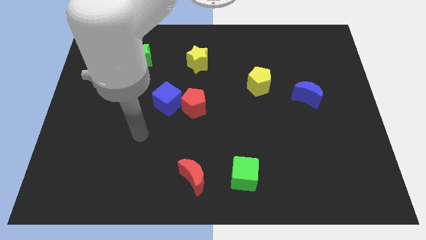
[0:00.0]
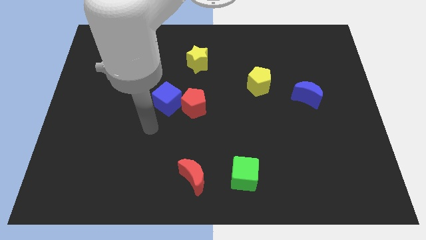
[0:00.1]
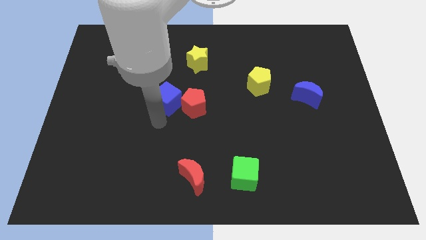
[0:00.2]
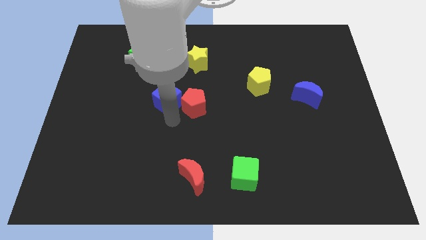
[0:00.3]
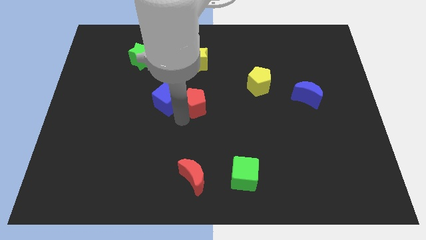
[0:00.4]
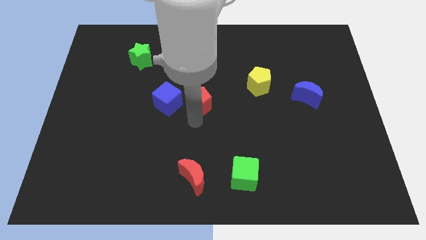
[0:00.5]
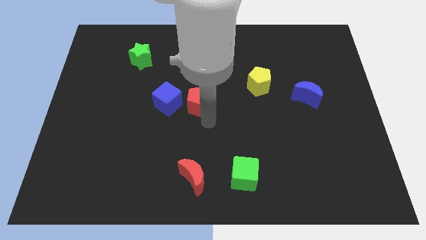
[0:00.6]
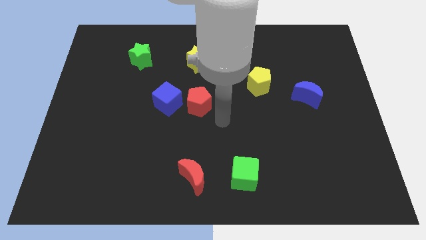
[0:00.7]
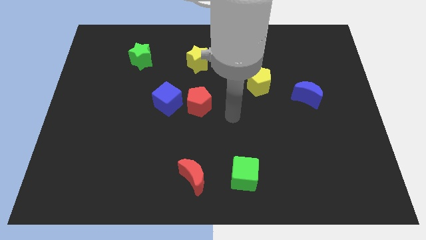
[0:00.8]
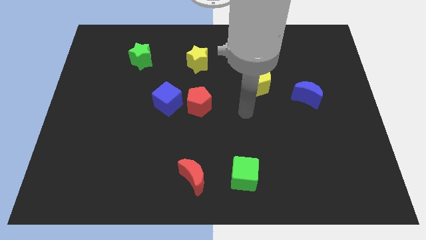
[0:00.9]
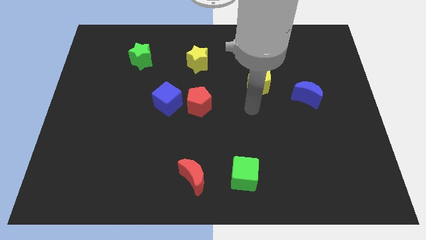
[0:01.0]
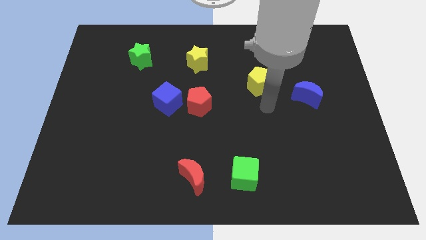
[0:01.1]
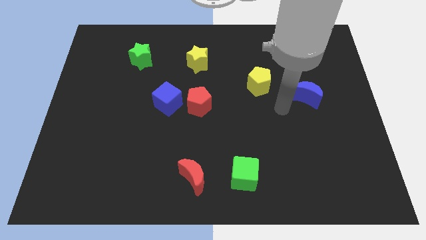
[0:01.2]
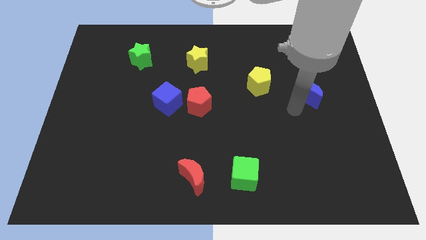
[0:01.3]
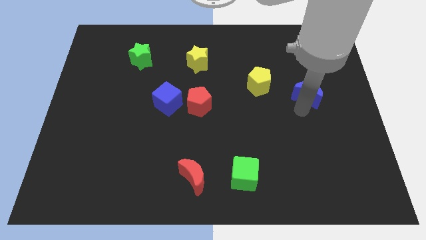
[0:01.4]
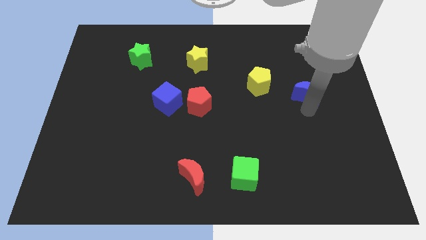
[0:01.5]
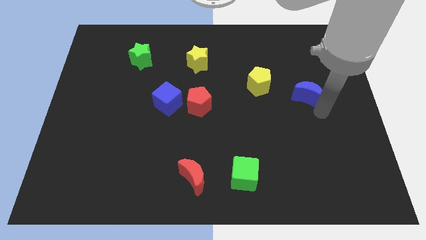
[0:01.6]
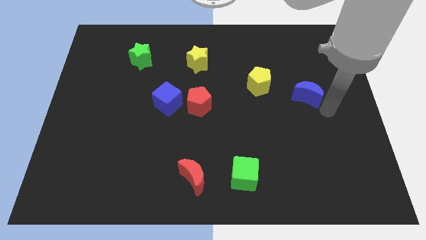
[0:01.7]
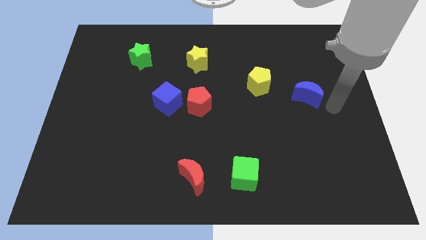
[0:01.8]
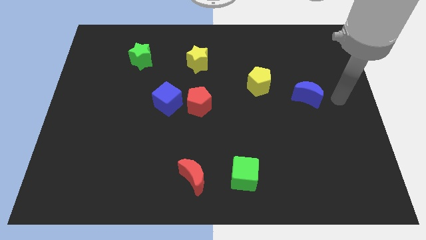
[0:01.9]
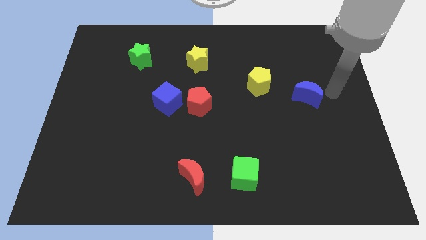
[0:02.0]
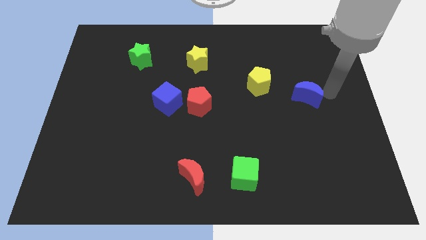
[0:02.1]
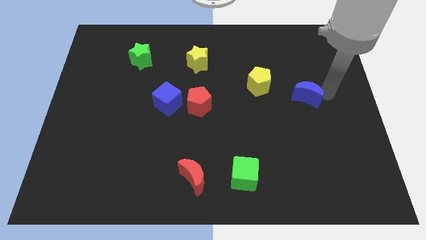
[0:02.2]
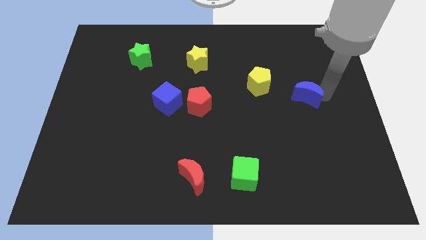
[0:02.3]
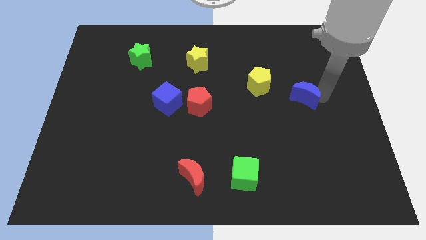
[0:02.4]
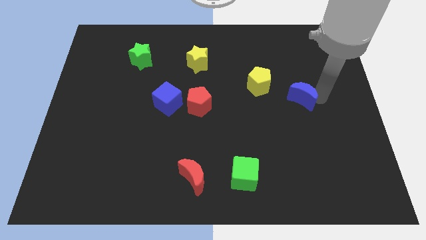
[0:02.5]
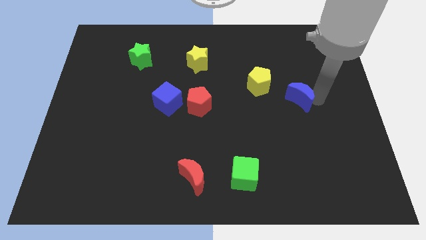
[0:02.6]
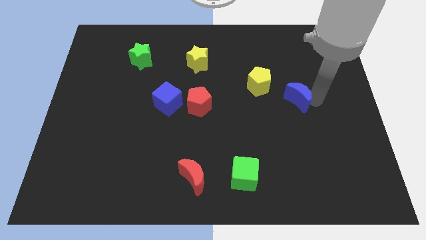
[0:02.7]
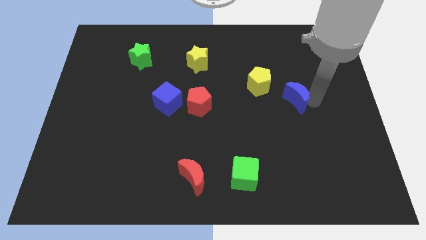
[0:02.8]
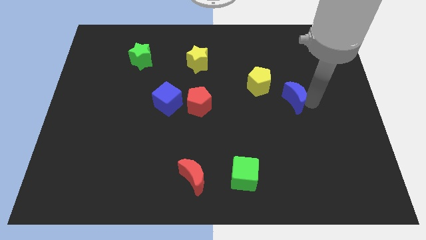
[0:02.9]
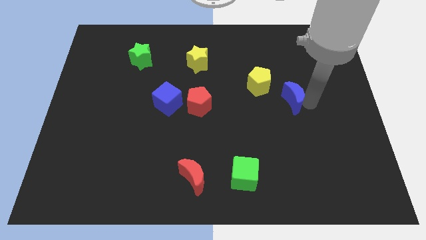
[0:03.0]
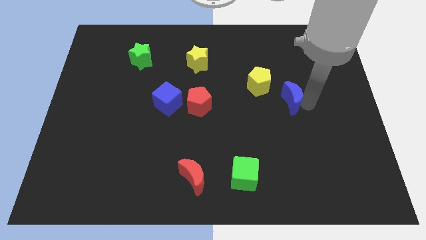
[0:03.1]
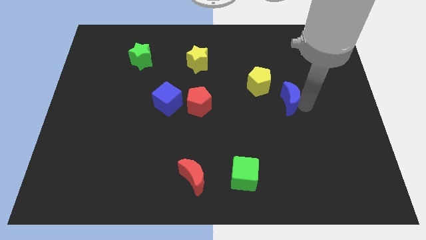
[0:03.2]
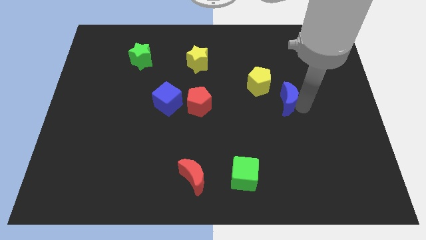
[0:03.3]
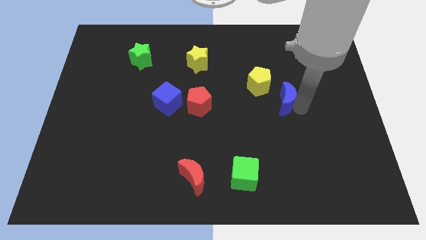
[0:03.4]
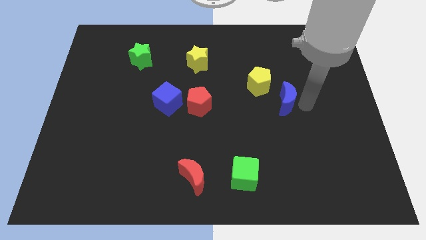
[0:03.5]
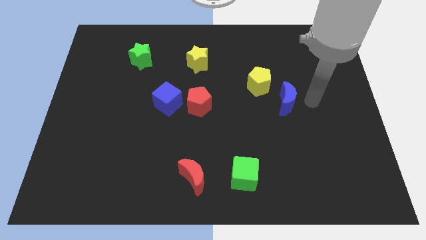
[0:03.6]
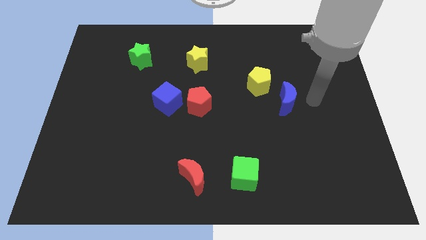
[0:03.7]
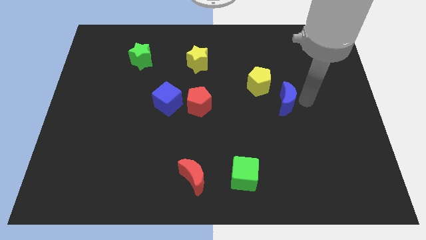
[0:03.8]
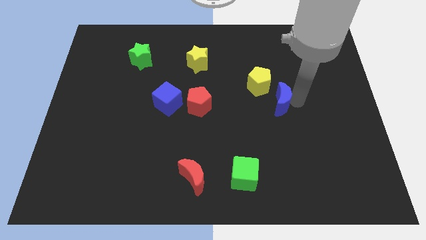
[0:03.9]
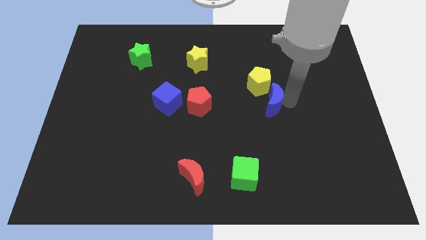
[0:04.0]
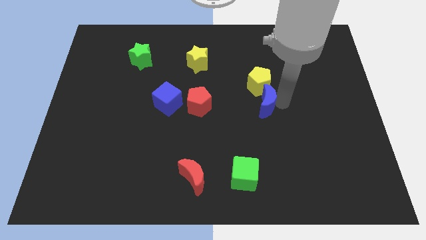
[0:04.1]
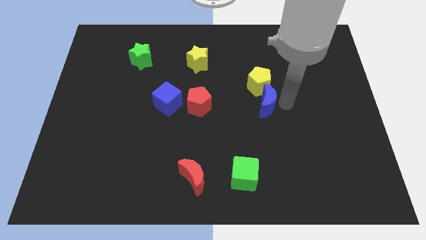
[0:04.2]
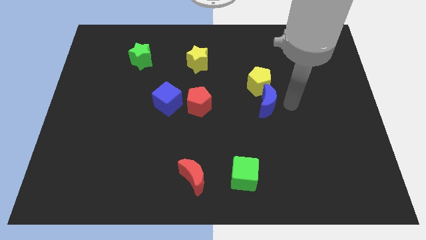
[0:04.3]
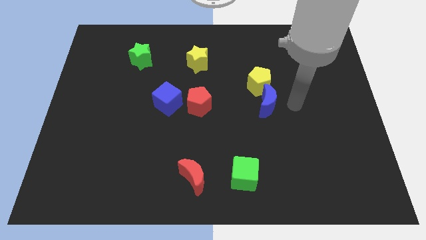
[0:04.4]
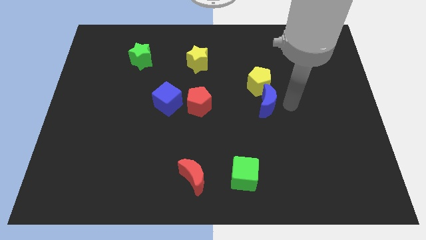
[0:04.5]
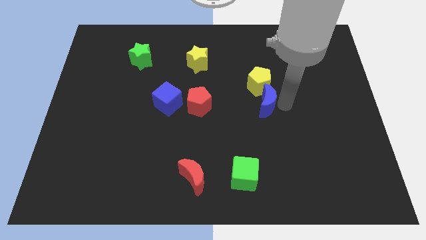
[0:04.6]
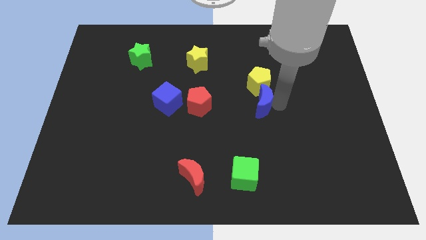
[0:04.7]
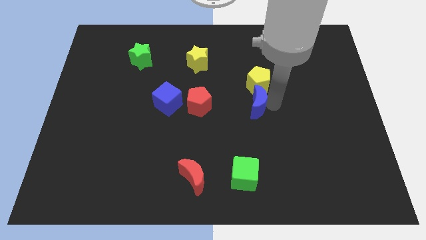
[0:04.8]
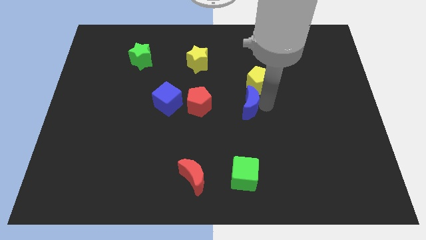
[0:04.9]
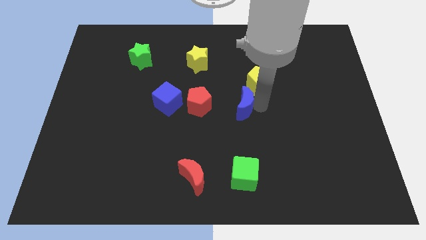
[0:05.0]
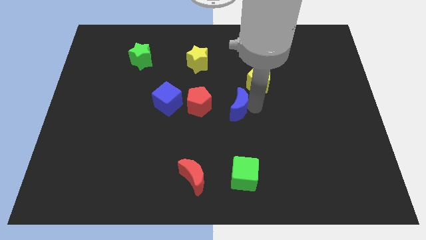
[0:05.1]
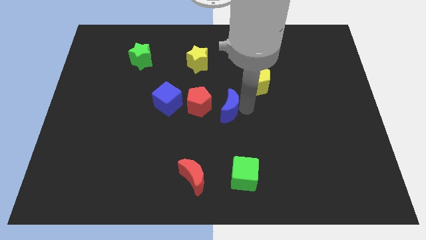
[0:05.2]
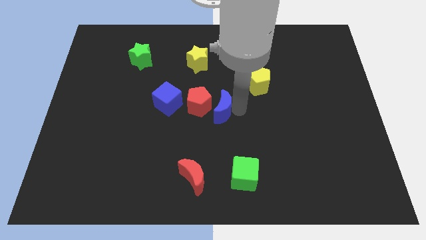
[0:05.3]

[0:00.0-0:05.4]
move the blue moon close to the red pentagon

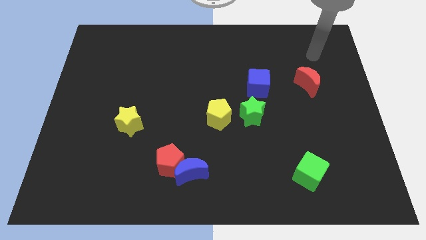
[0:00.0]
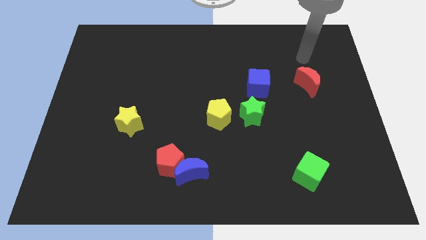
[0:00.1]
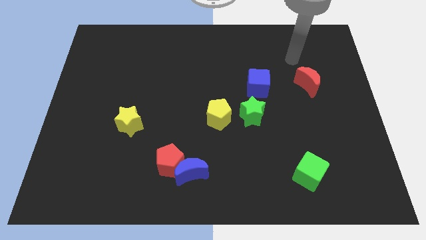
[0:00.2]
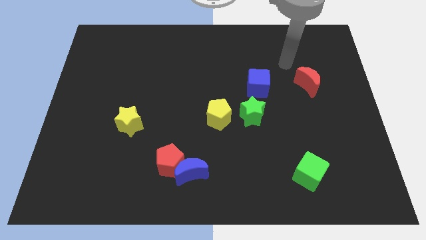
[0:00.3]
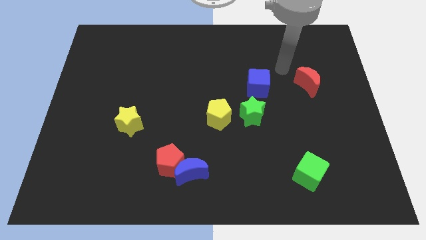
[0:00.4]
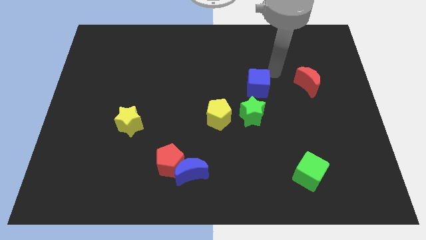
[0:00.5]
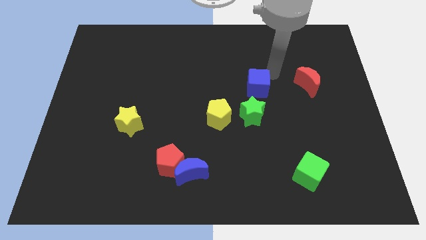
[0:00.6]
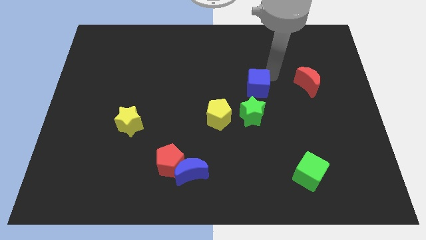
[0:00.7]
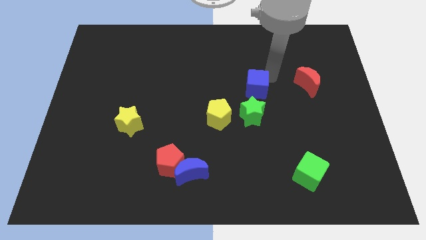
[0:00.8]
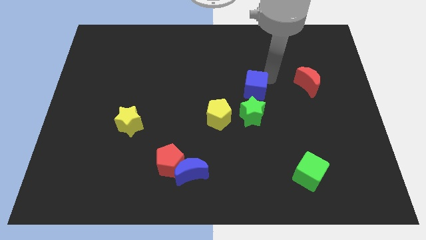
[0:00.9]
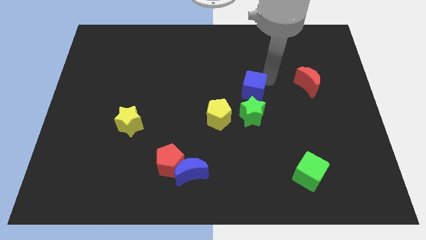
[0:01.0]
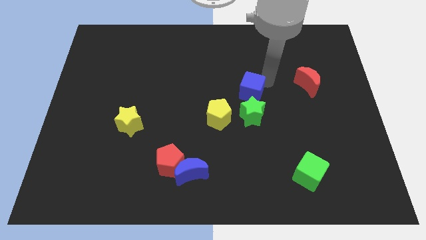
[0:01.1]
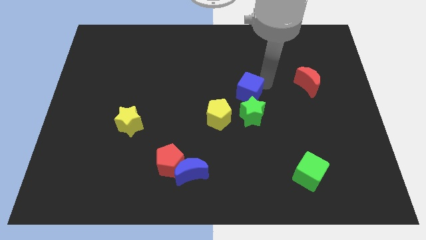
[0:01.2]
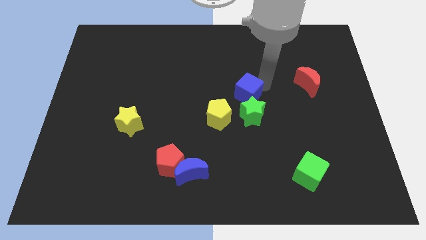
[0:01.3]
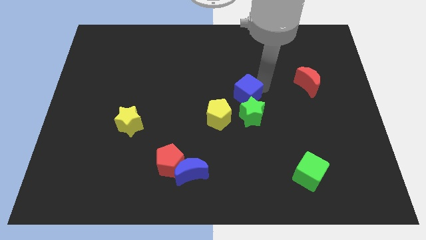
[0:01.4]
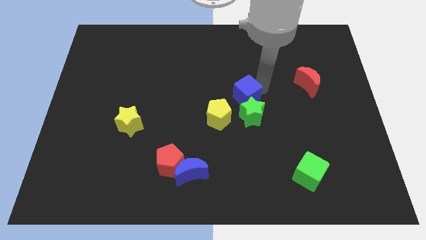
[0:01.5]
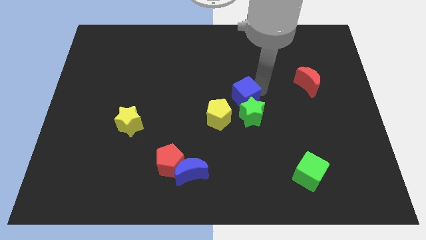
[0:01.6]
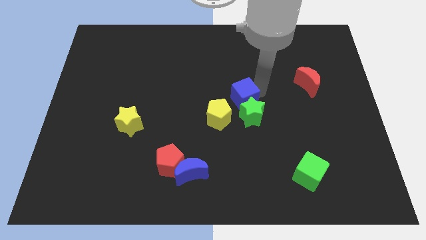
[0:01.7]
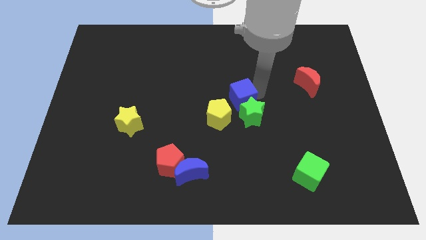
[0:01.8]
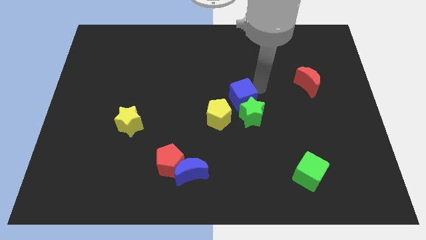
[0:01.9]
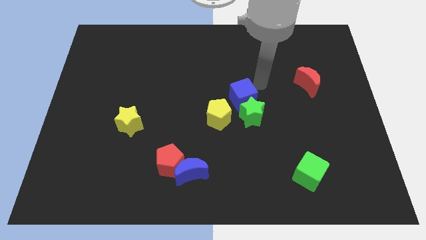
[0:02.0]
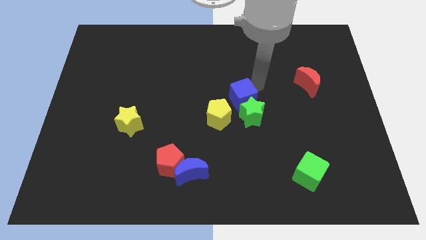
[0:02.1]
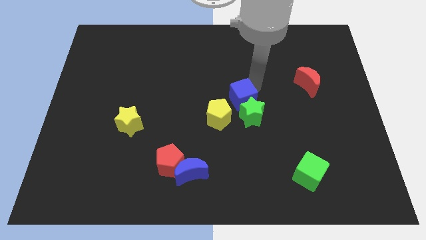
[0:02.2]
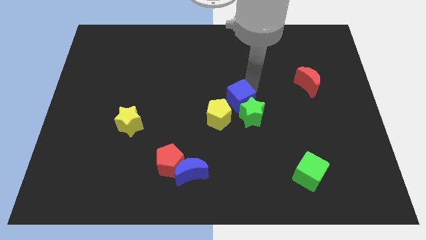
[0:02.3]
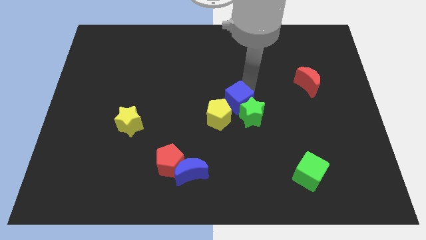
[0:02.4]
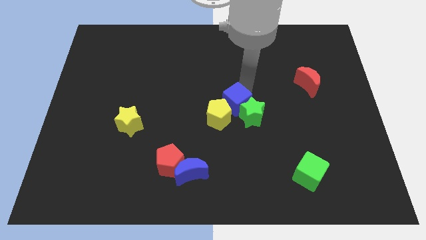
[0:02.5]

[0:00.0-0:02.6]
move the blue cube to the yellow pentagon
